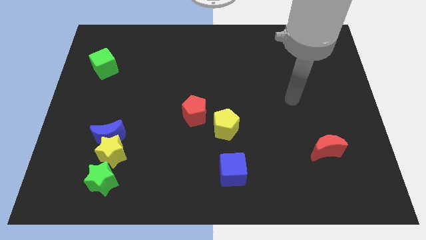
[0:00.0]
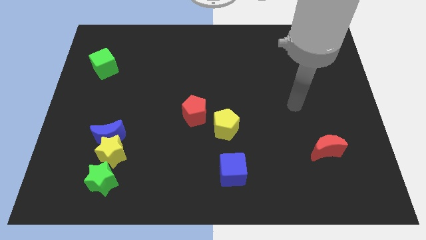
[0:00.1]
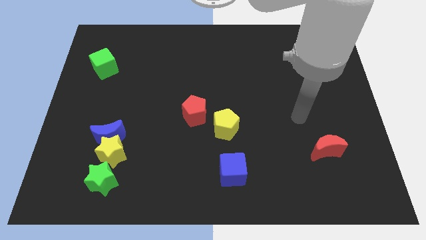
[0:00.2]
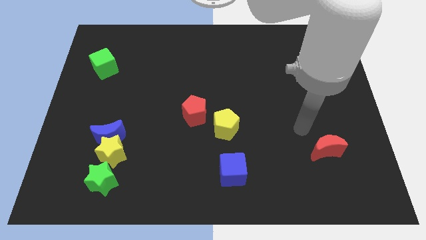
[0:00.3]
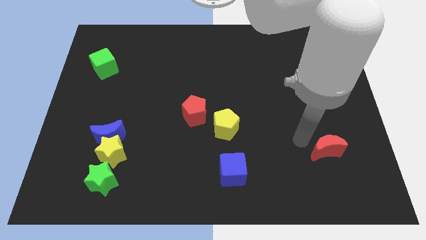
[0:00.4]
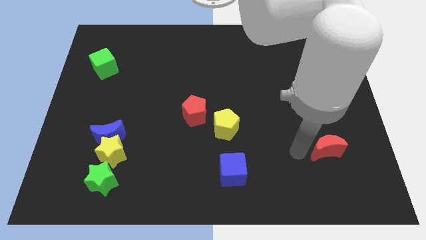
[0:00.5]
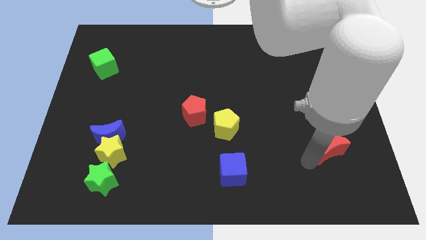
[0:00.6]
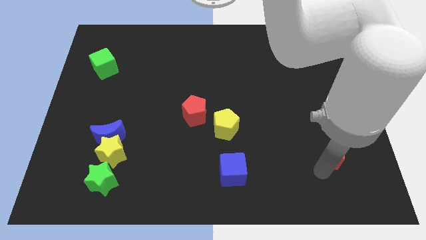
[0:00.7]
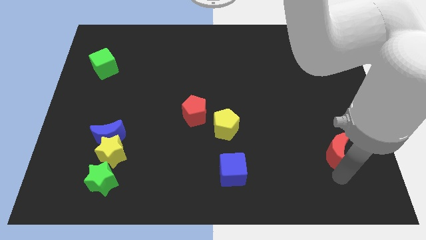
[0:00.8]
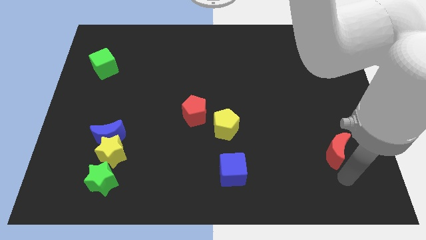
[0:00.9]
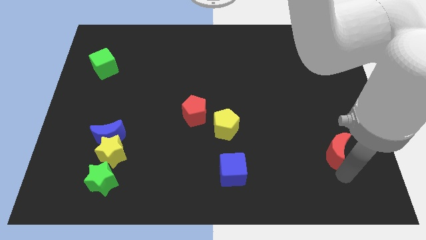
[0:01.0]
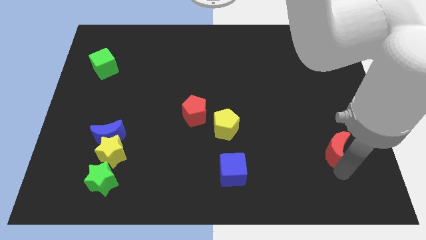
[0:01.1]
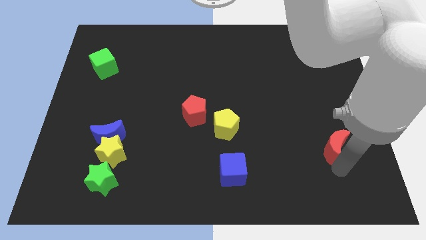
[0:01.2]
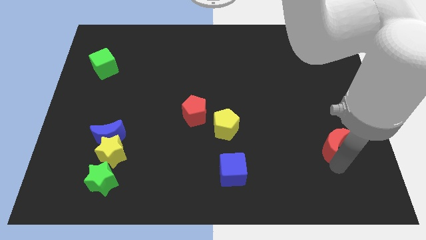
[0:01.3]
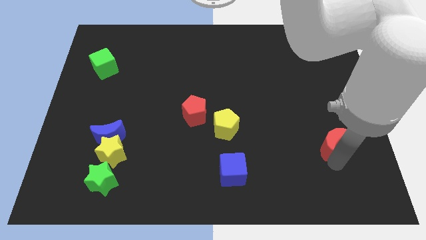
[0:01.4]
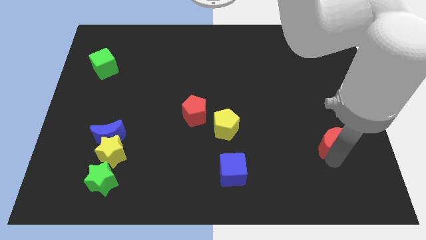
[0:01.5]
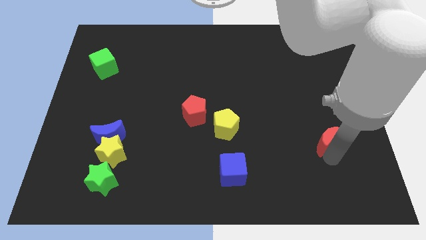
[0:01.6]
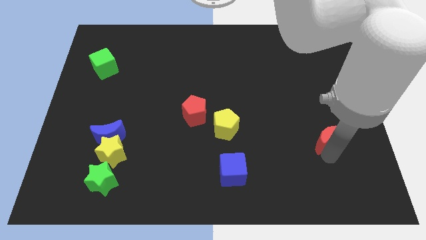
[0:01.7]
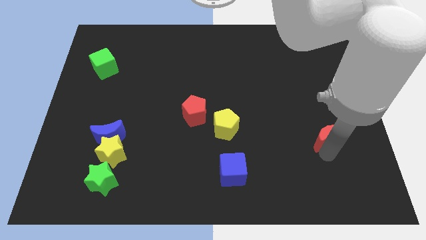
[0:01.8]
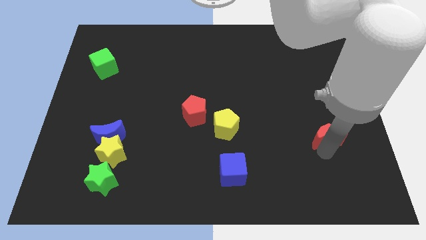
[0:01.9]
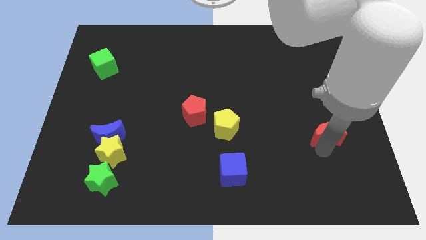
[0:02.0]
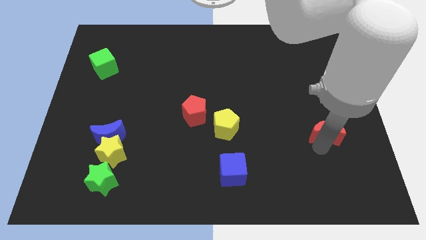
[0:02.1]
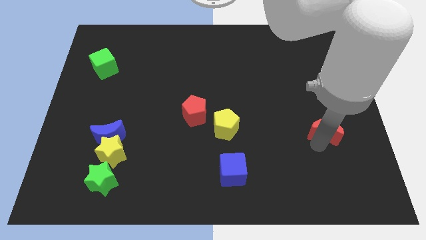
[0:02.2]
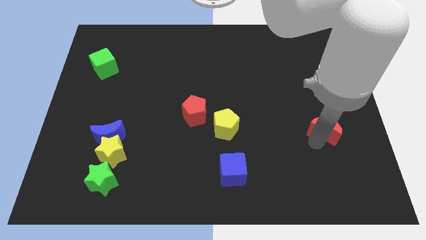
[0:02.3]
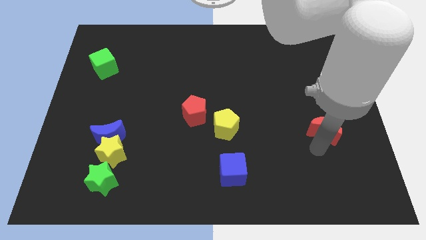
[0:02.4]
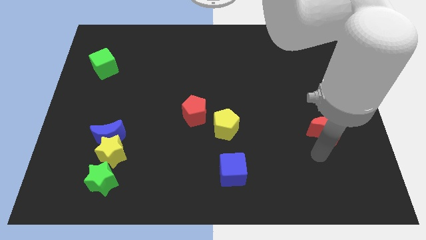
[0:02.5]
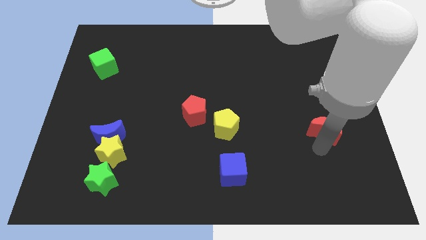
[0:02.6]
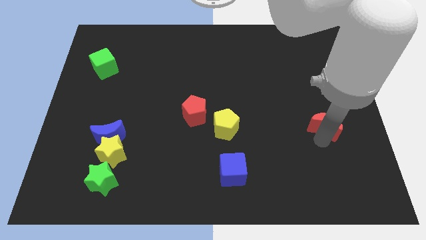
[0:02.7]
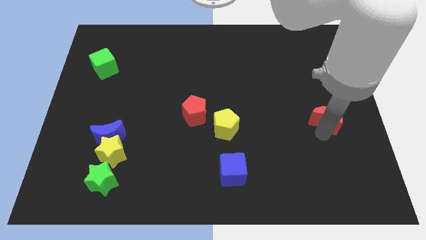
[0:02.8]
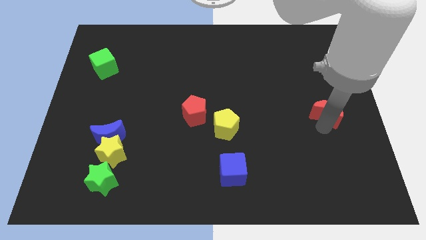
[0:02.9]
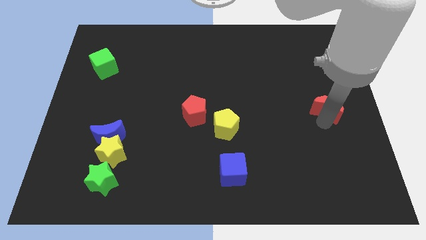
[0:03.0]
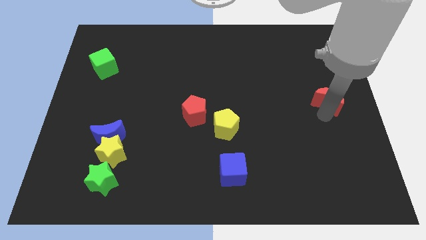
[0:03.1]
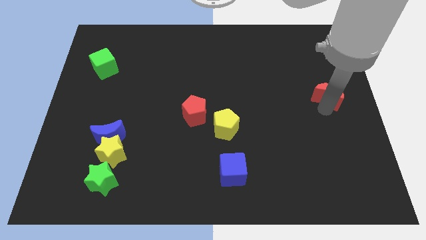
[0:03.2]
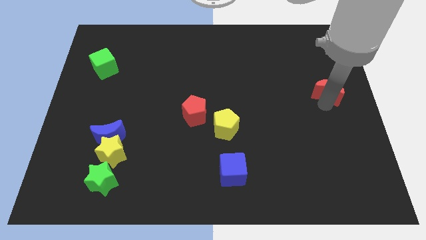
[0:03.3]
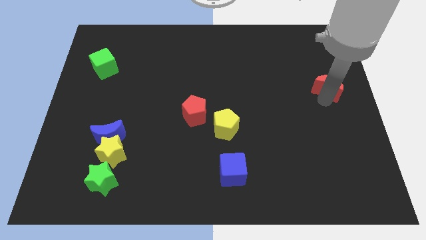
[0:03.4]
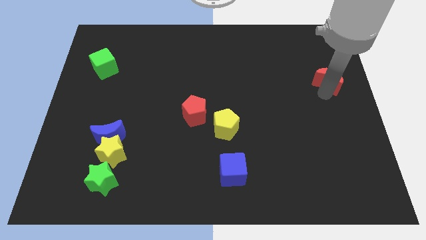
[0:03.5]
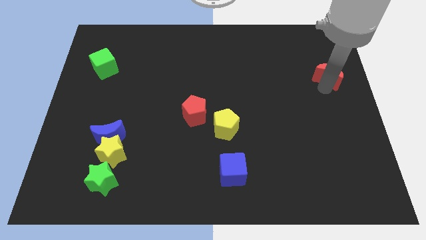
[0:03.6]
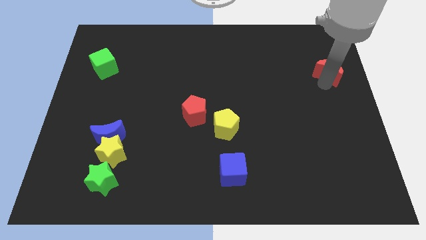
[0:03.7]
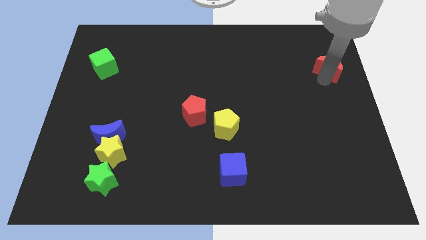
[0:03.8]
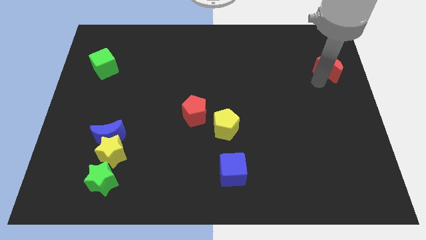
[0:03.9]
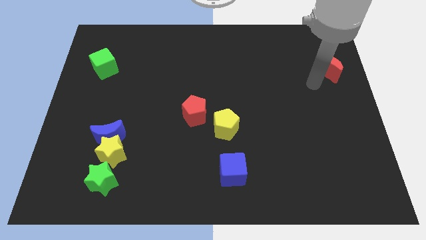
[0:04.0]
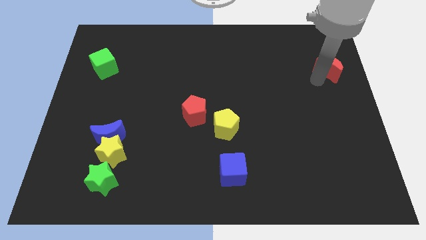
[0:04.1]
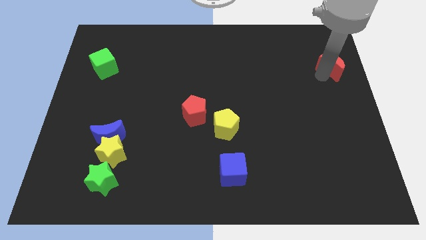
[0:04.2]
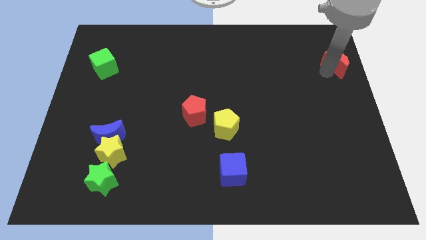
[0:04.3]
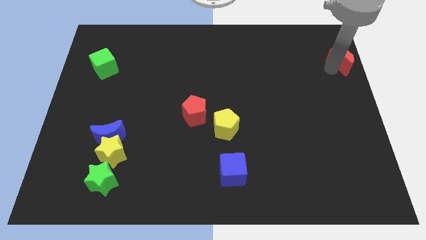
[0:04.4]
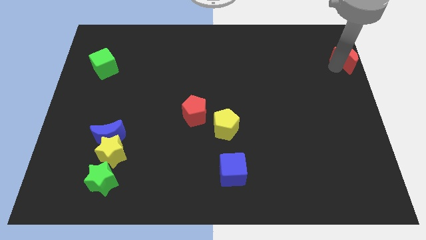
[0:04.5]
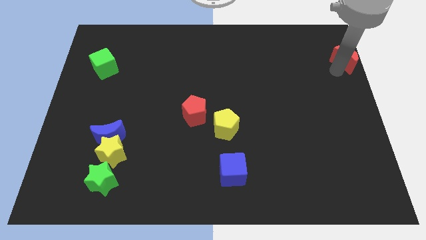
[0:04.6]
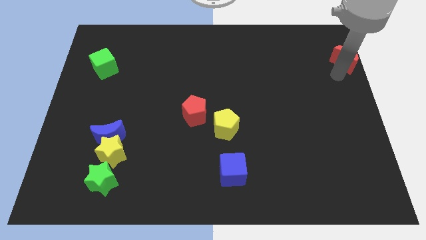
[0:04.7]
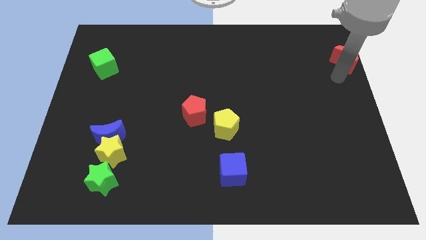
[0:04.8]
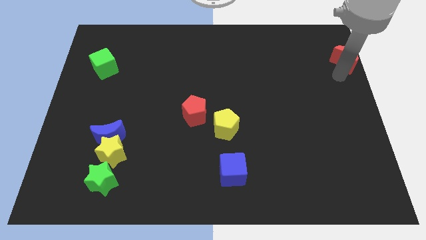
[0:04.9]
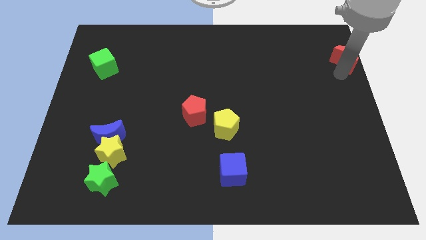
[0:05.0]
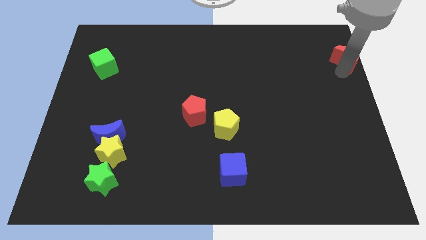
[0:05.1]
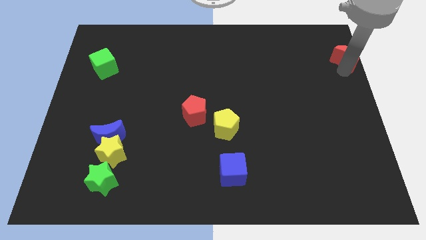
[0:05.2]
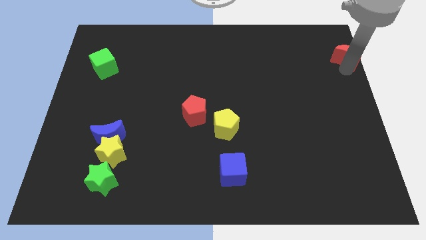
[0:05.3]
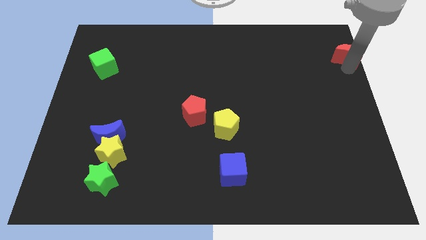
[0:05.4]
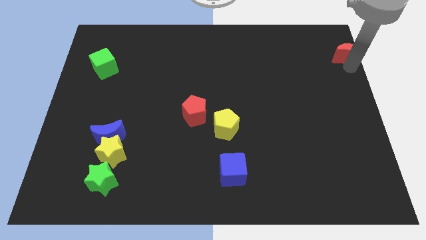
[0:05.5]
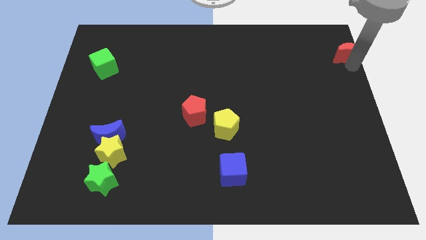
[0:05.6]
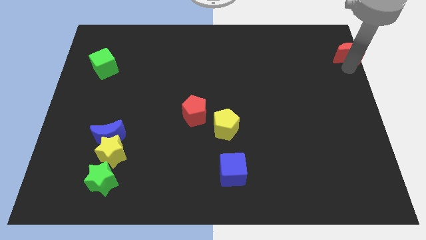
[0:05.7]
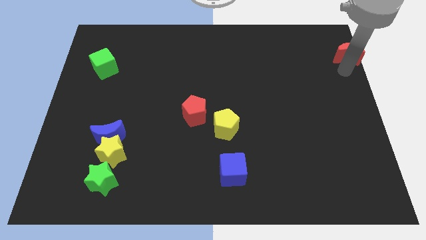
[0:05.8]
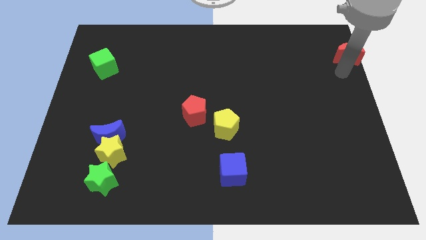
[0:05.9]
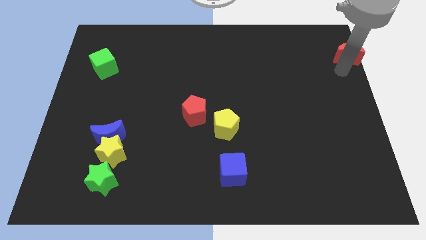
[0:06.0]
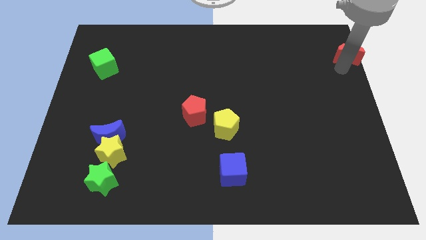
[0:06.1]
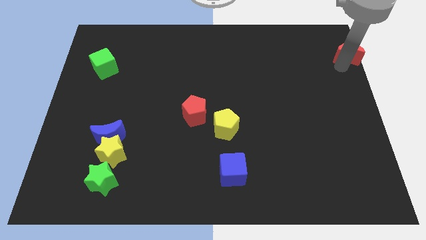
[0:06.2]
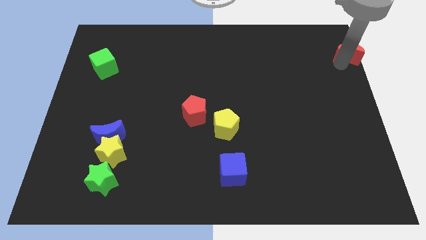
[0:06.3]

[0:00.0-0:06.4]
push the red moon to the top right of the board
